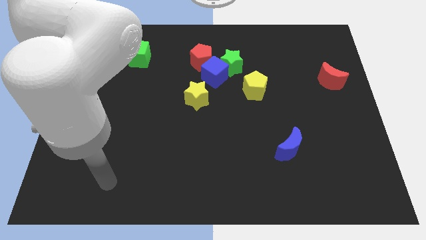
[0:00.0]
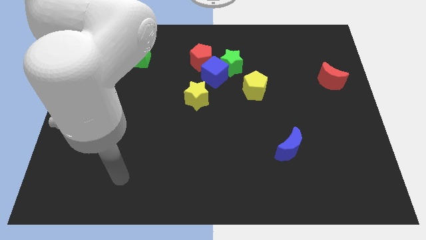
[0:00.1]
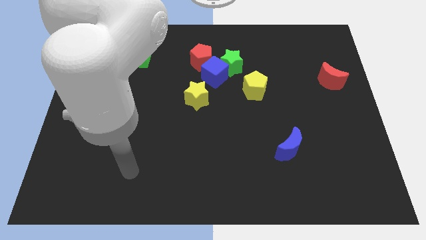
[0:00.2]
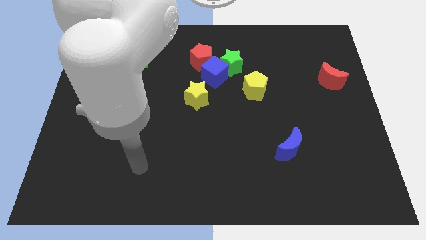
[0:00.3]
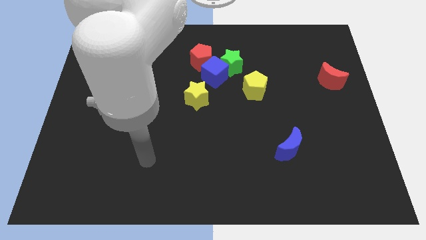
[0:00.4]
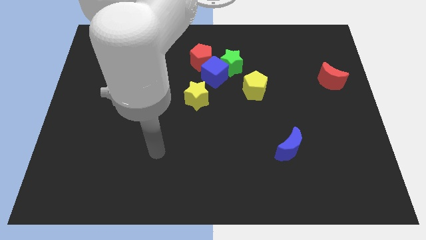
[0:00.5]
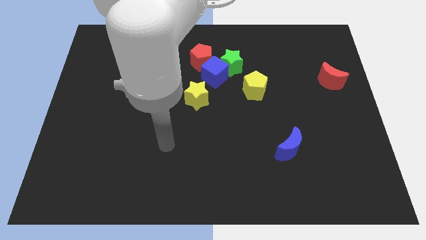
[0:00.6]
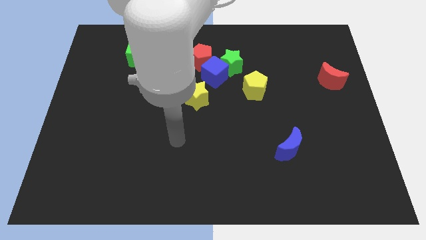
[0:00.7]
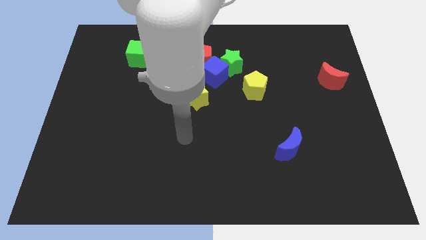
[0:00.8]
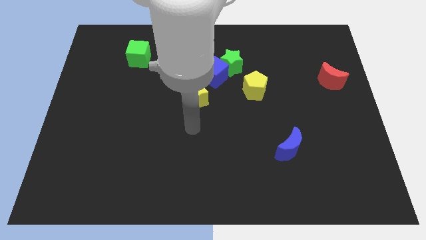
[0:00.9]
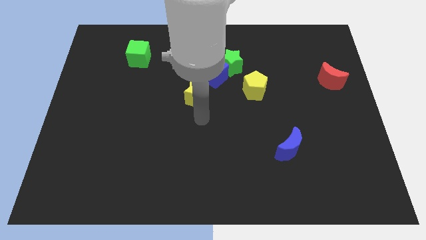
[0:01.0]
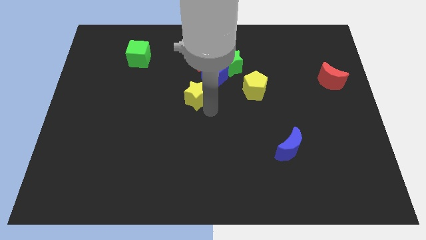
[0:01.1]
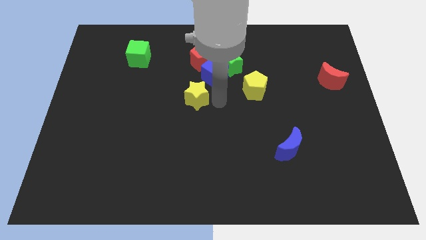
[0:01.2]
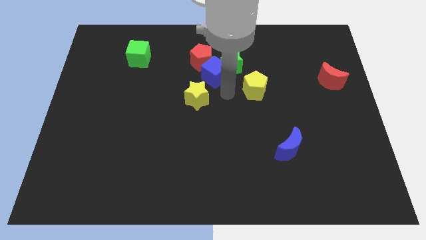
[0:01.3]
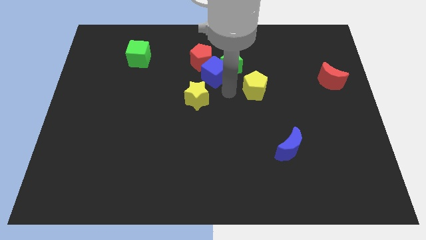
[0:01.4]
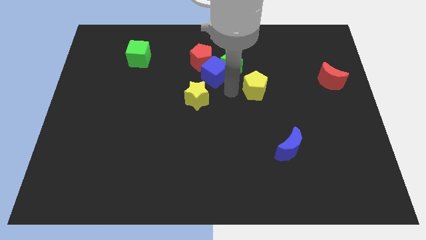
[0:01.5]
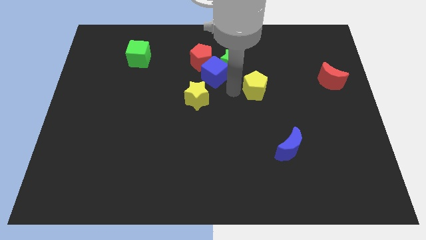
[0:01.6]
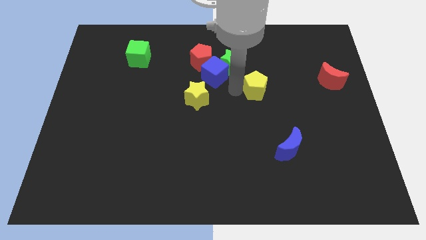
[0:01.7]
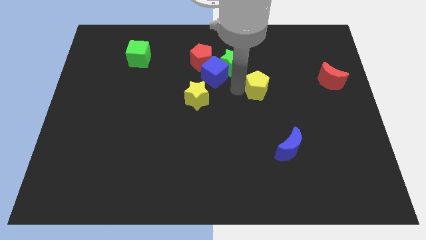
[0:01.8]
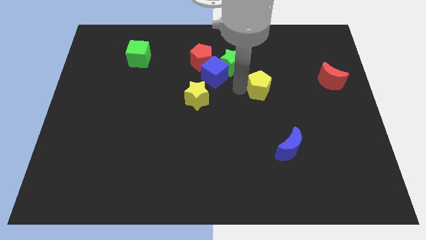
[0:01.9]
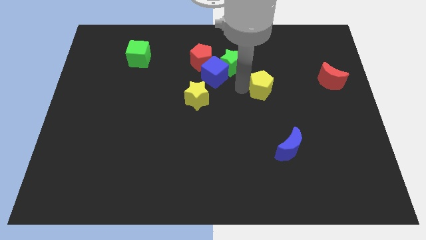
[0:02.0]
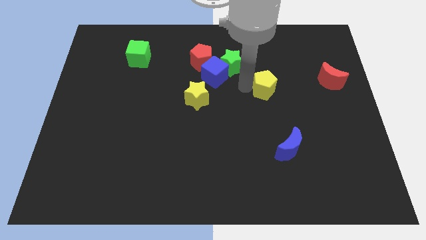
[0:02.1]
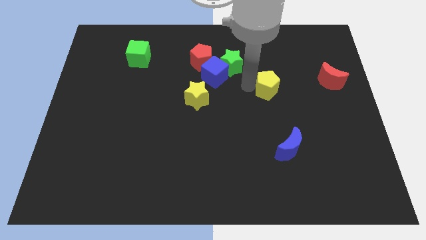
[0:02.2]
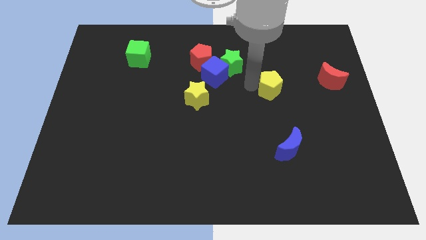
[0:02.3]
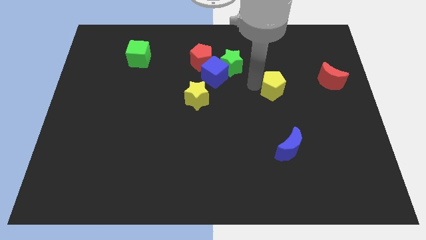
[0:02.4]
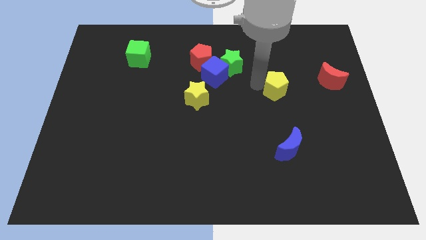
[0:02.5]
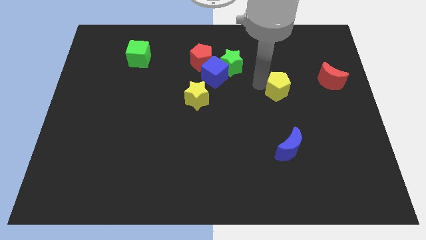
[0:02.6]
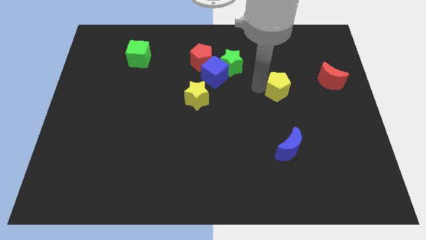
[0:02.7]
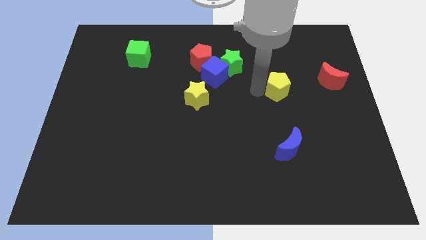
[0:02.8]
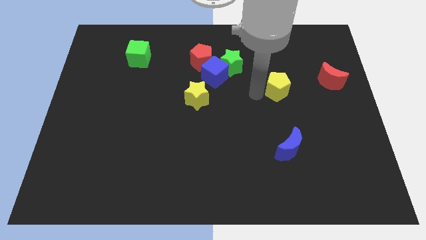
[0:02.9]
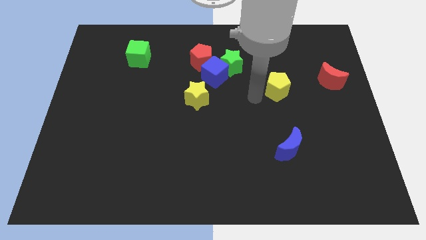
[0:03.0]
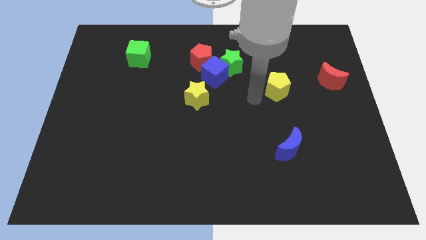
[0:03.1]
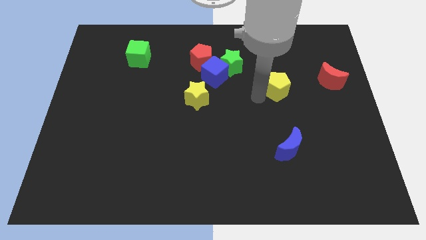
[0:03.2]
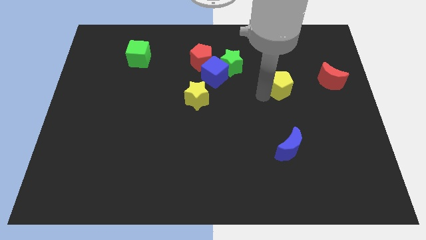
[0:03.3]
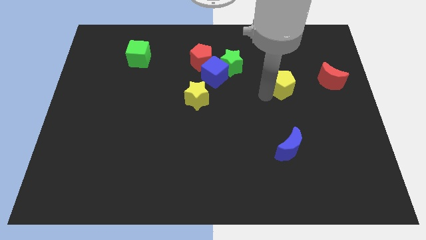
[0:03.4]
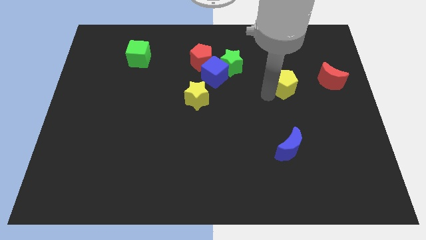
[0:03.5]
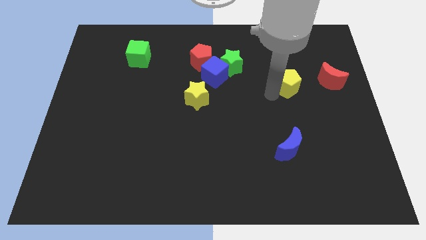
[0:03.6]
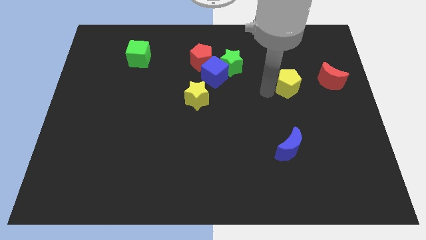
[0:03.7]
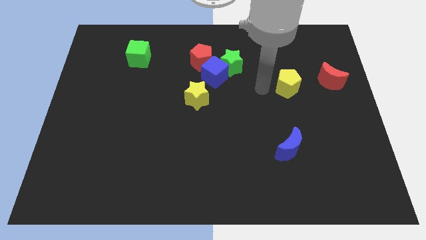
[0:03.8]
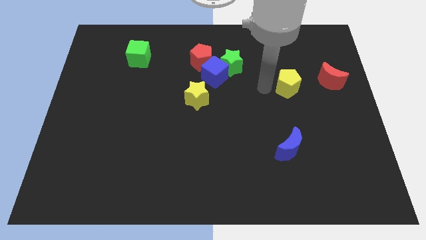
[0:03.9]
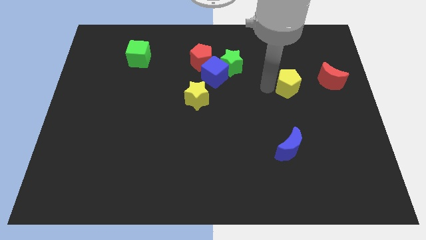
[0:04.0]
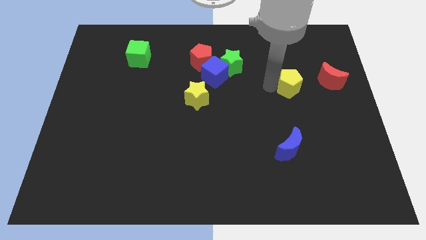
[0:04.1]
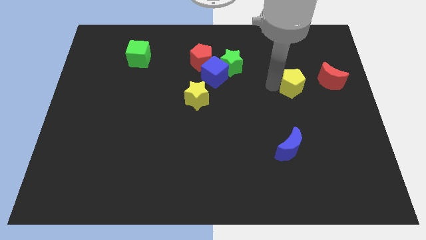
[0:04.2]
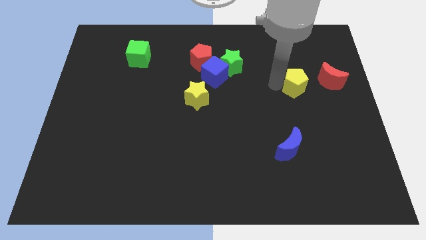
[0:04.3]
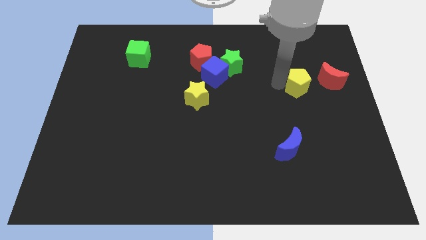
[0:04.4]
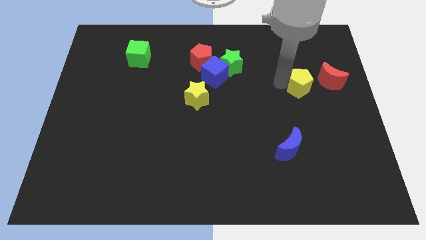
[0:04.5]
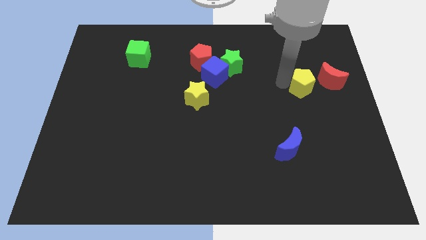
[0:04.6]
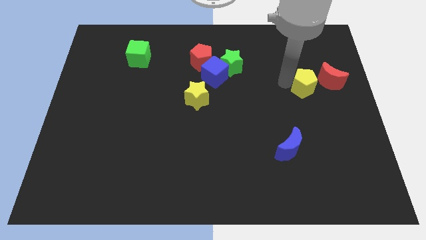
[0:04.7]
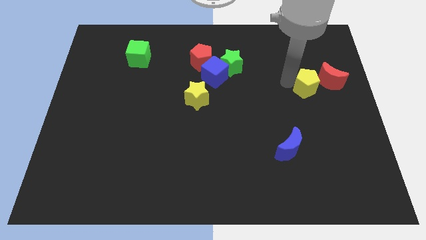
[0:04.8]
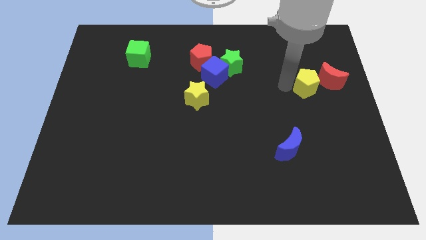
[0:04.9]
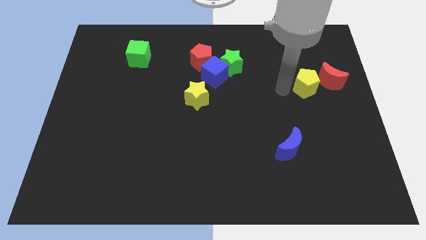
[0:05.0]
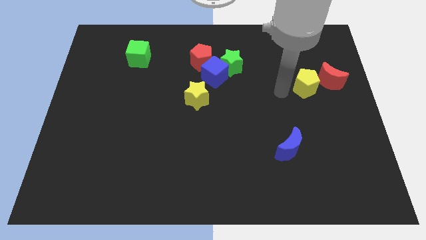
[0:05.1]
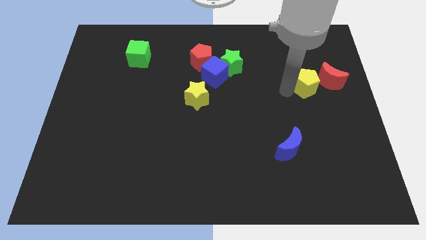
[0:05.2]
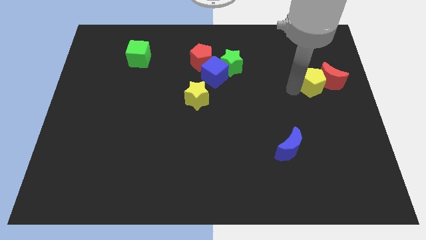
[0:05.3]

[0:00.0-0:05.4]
put the yellow pentagon close to the red moon

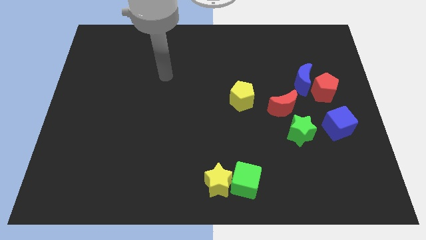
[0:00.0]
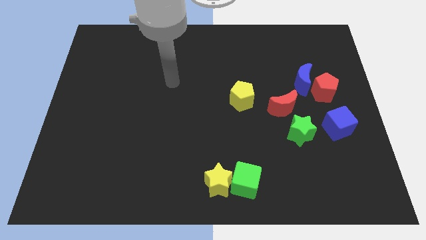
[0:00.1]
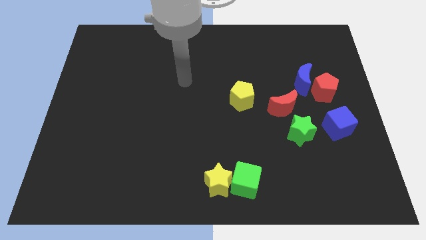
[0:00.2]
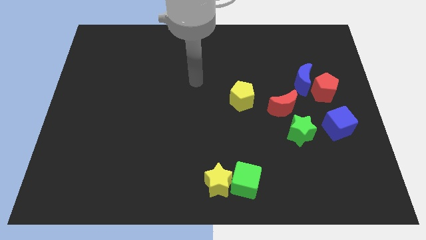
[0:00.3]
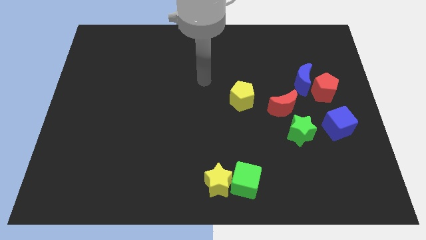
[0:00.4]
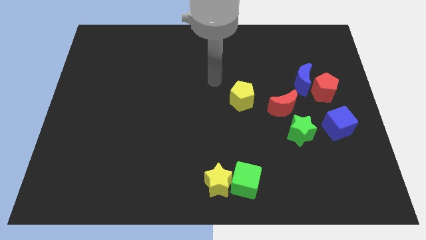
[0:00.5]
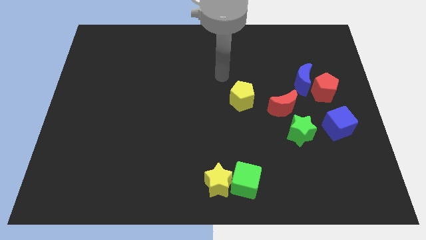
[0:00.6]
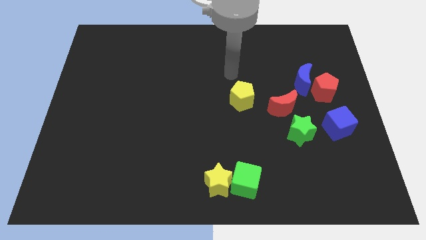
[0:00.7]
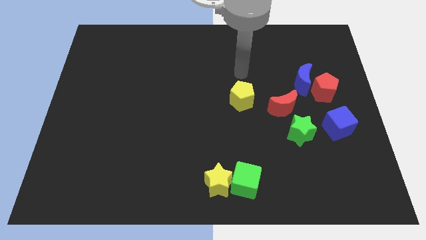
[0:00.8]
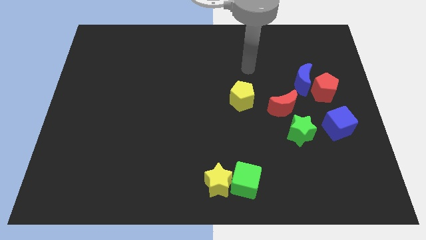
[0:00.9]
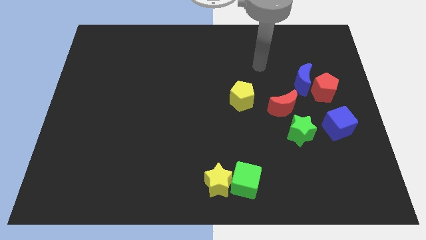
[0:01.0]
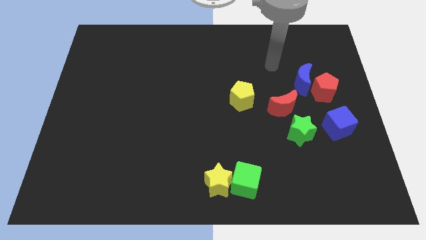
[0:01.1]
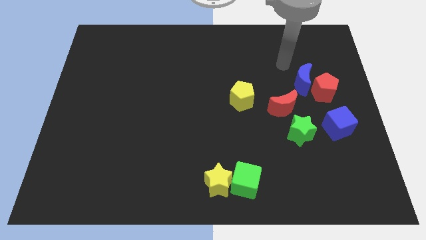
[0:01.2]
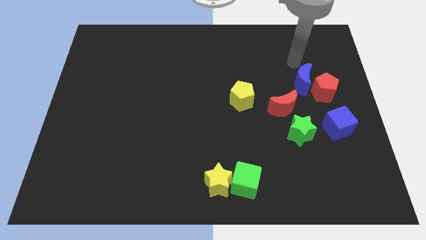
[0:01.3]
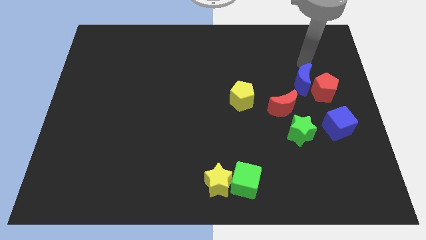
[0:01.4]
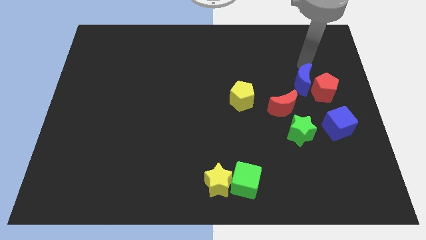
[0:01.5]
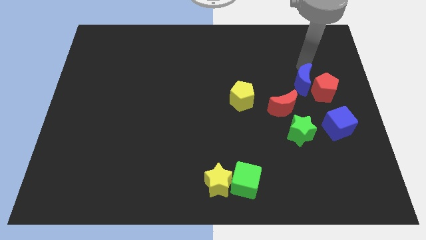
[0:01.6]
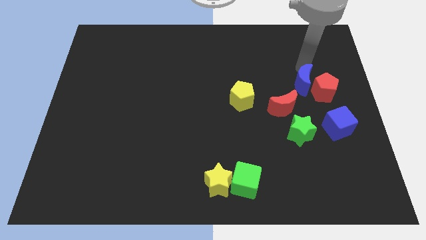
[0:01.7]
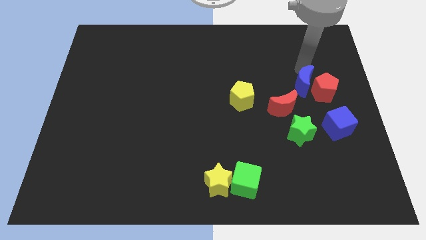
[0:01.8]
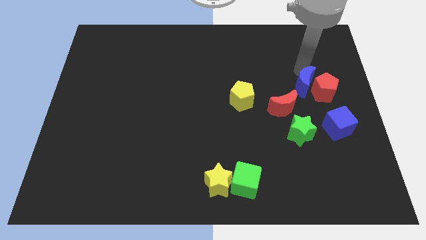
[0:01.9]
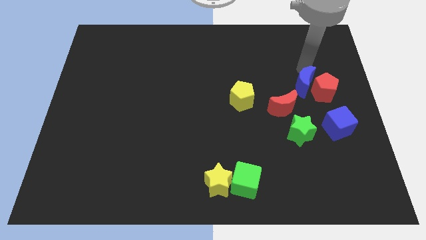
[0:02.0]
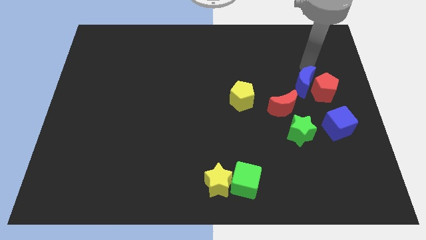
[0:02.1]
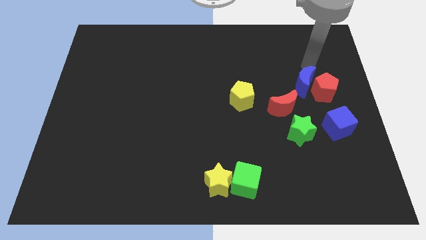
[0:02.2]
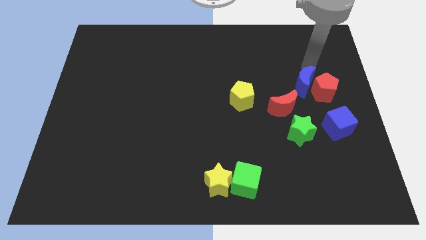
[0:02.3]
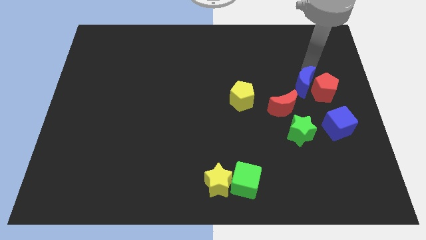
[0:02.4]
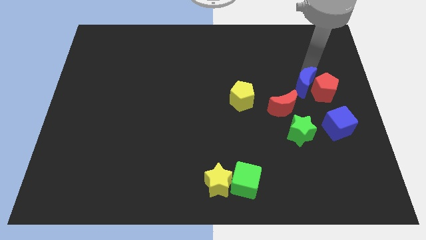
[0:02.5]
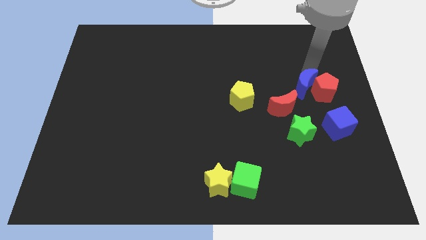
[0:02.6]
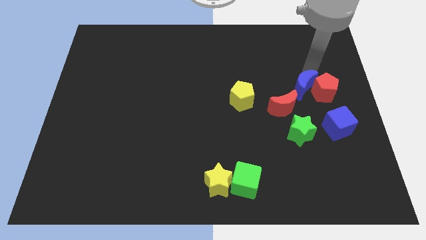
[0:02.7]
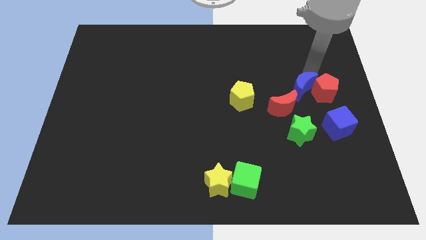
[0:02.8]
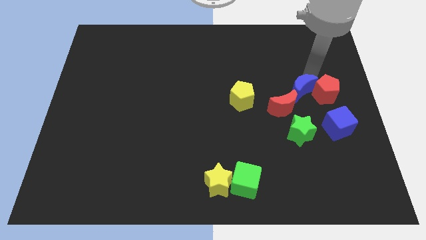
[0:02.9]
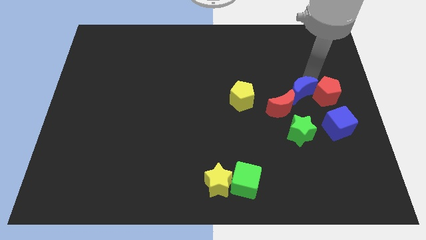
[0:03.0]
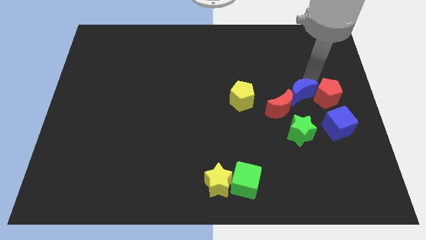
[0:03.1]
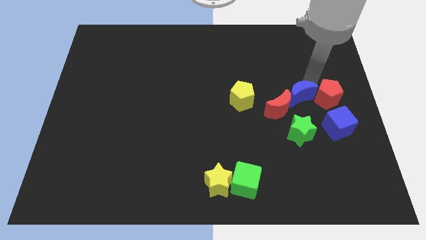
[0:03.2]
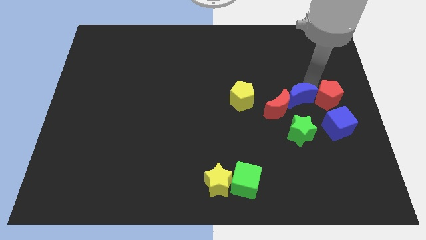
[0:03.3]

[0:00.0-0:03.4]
put the blue moon close to the red moon
